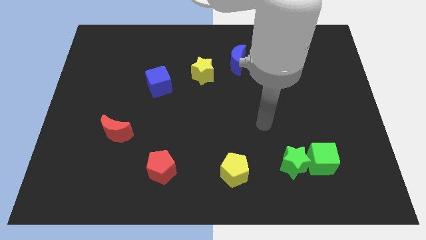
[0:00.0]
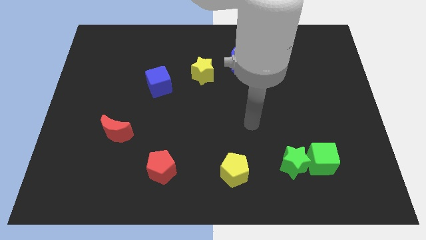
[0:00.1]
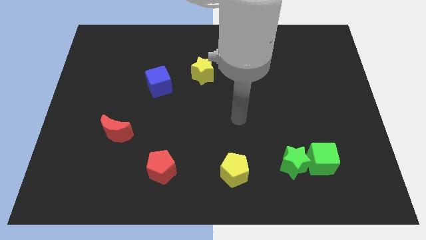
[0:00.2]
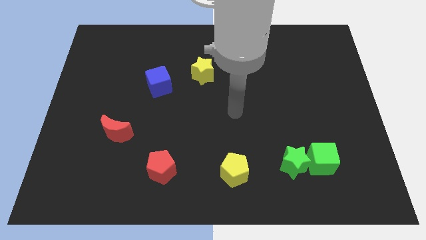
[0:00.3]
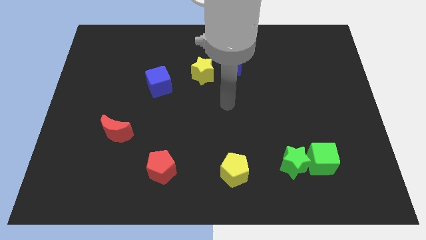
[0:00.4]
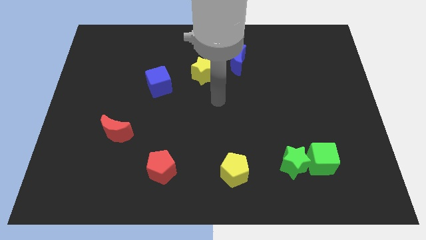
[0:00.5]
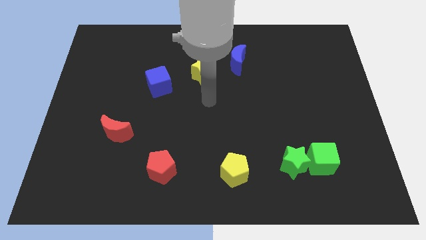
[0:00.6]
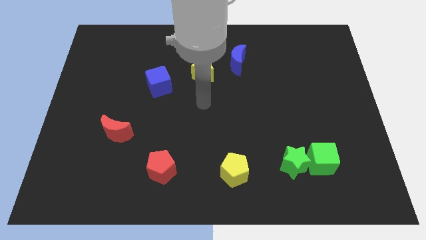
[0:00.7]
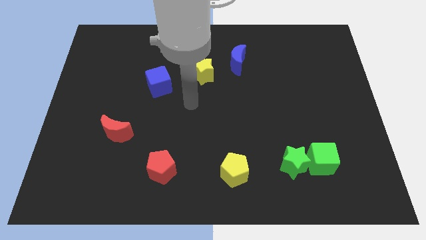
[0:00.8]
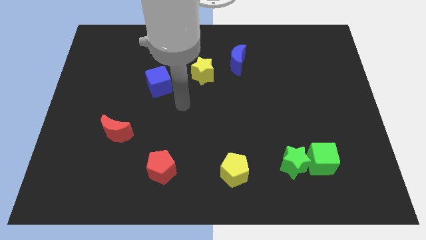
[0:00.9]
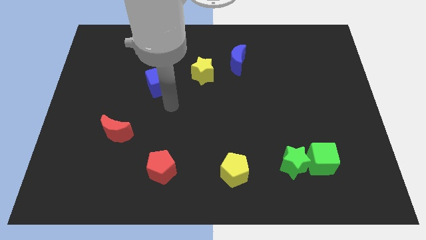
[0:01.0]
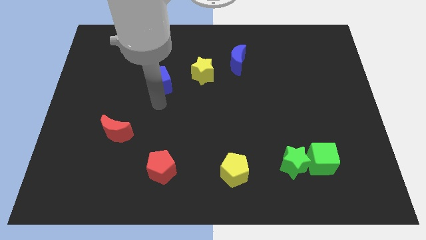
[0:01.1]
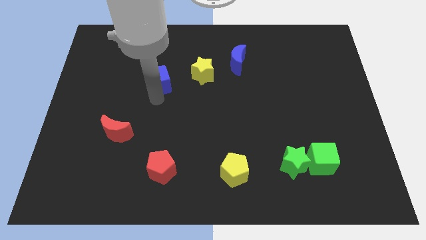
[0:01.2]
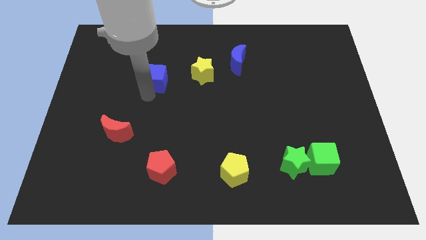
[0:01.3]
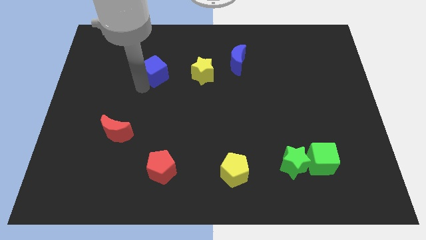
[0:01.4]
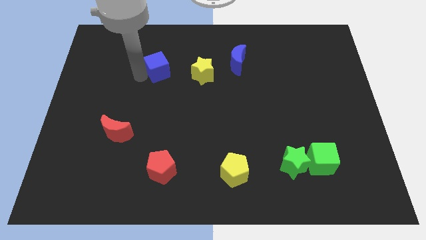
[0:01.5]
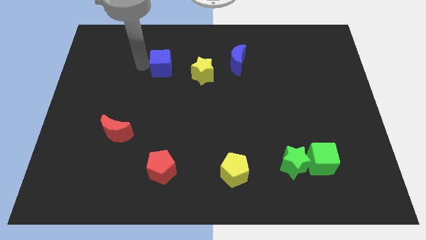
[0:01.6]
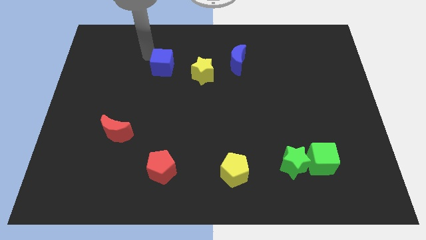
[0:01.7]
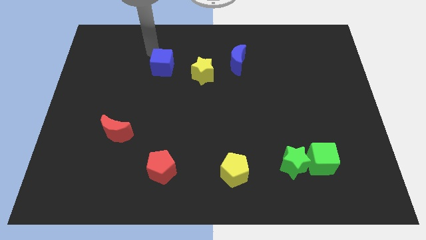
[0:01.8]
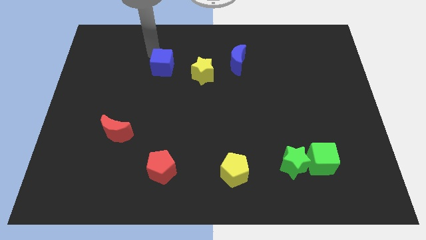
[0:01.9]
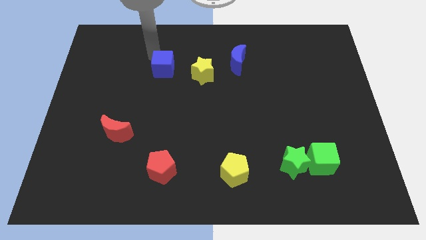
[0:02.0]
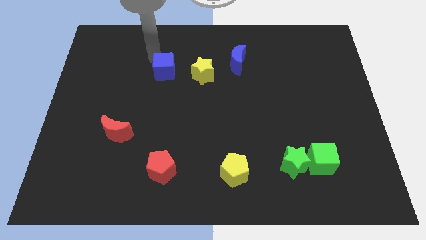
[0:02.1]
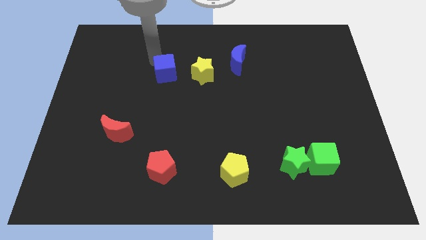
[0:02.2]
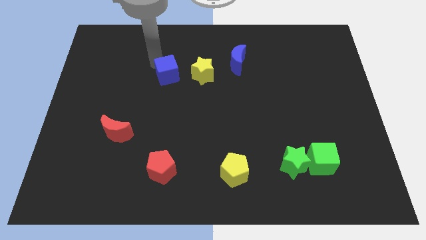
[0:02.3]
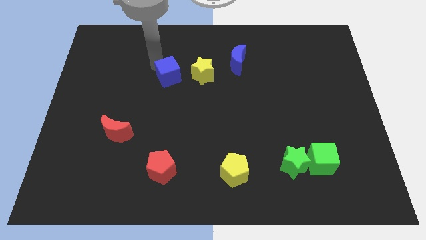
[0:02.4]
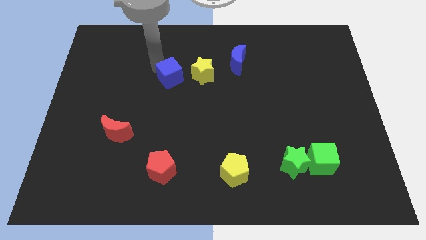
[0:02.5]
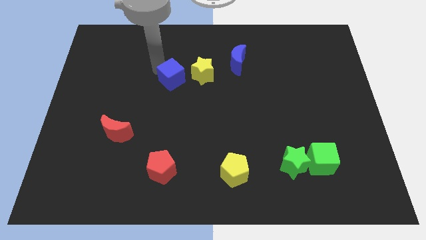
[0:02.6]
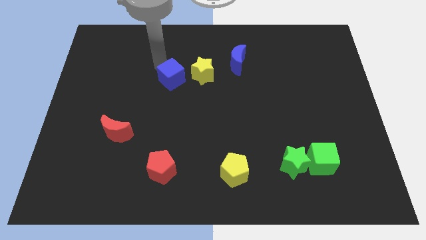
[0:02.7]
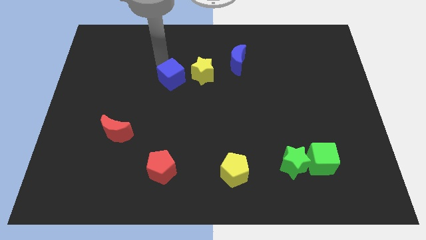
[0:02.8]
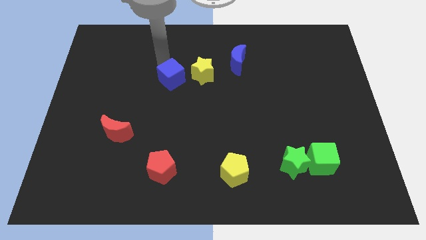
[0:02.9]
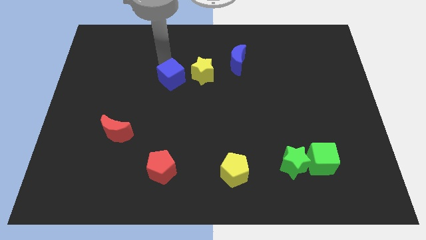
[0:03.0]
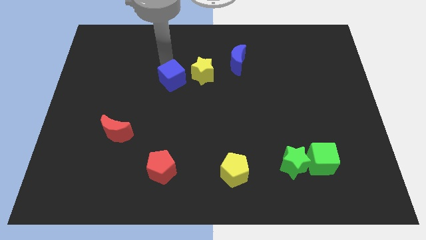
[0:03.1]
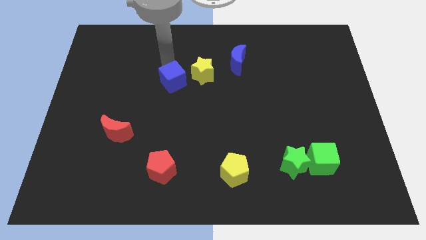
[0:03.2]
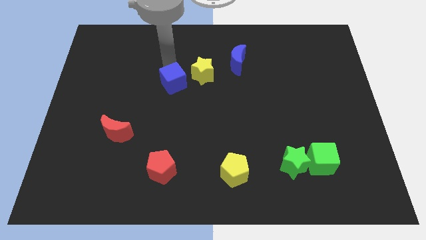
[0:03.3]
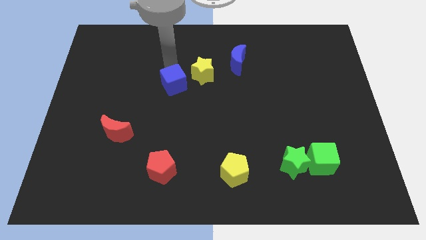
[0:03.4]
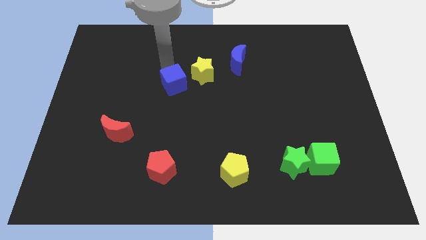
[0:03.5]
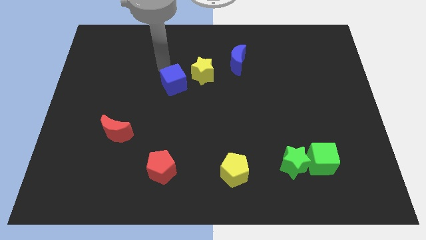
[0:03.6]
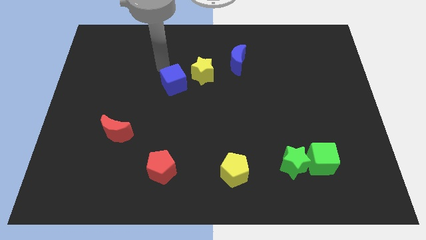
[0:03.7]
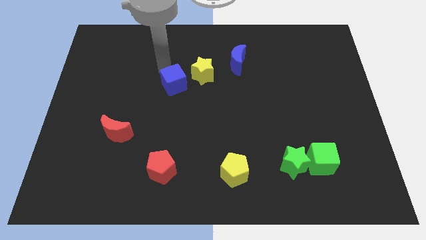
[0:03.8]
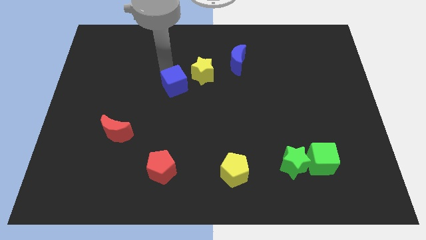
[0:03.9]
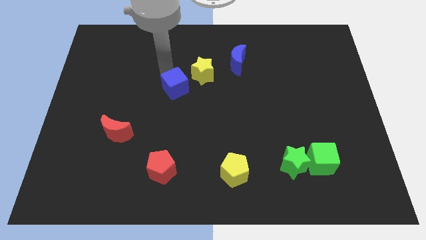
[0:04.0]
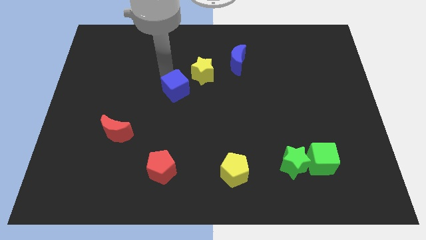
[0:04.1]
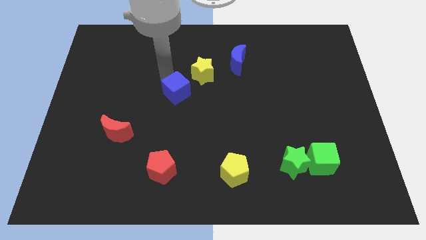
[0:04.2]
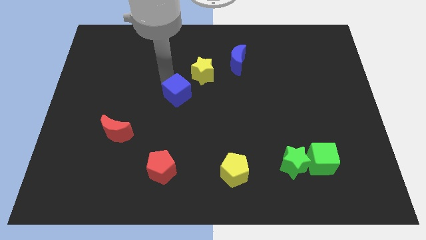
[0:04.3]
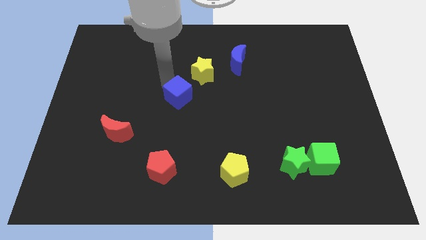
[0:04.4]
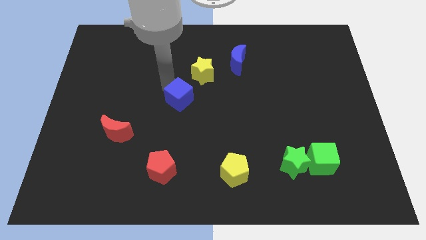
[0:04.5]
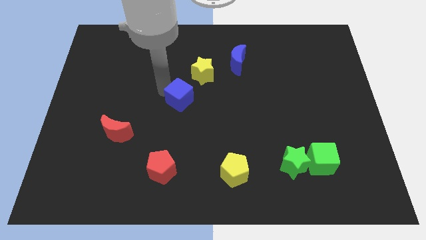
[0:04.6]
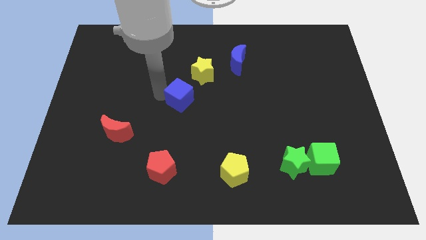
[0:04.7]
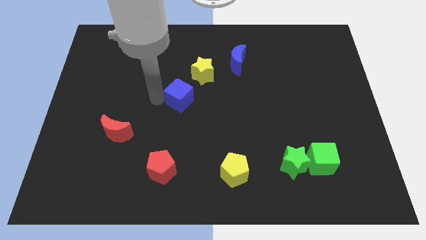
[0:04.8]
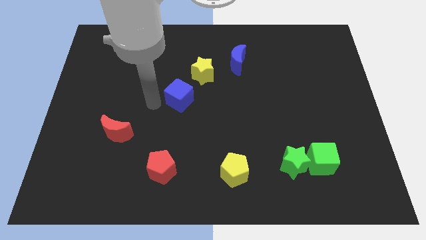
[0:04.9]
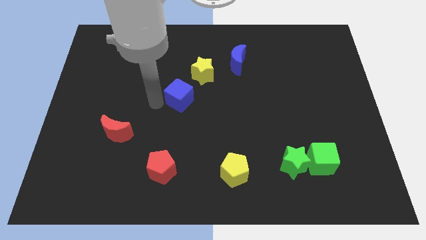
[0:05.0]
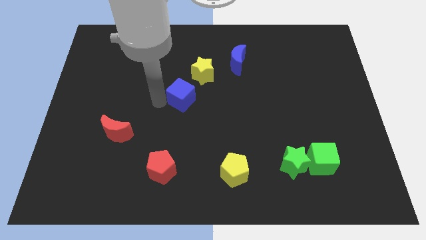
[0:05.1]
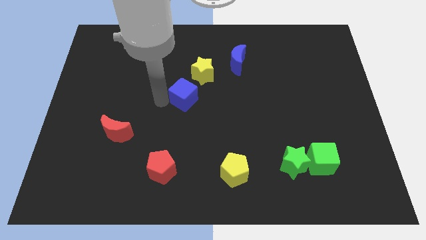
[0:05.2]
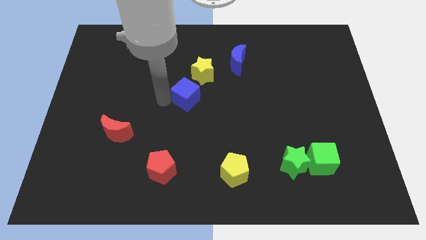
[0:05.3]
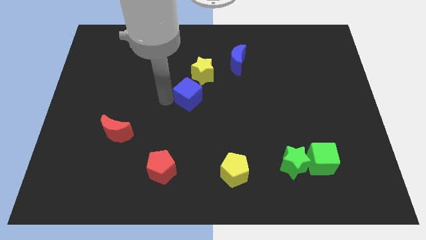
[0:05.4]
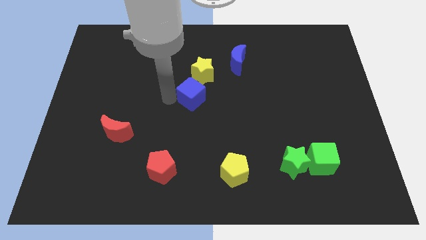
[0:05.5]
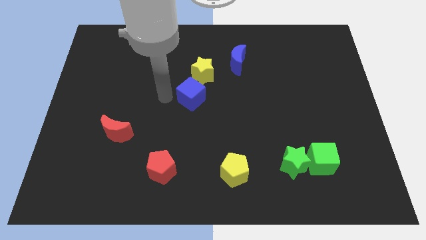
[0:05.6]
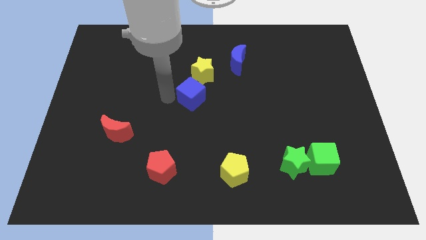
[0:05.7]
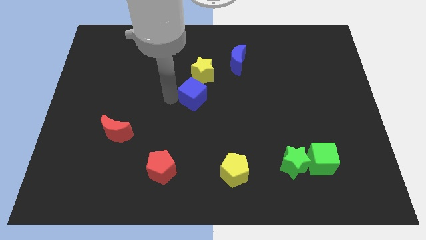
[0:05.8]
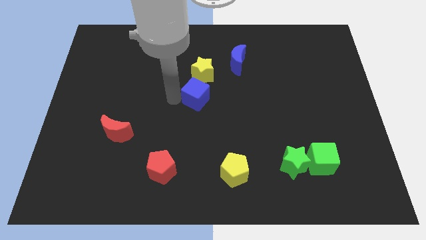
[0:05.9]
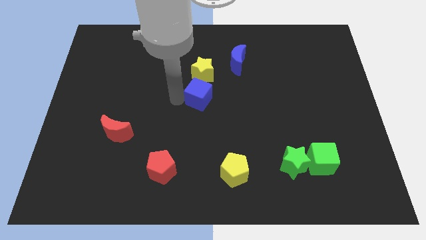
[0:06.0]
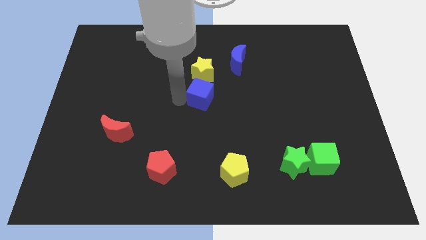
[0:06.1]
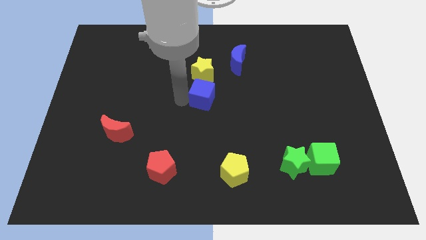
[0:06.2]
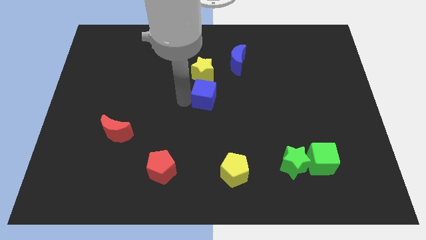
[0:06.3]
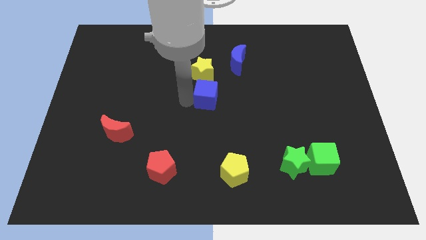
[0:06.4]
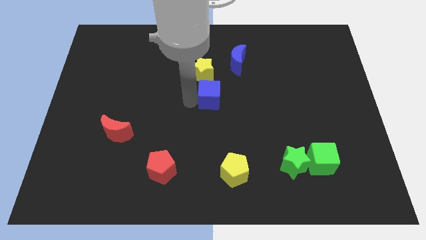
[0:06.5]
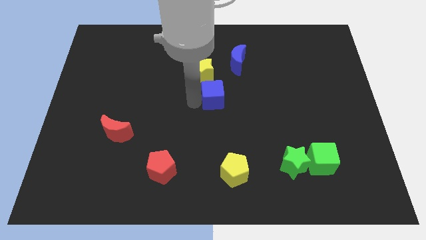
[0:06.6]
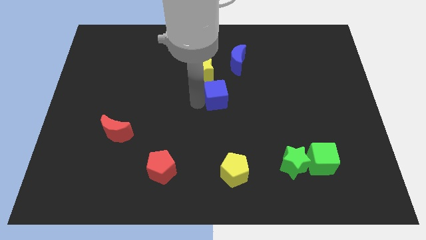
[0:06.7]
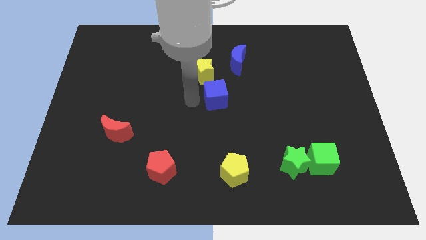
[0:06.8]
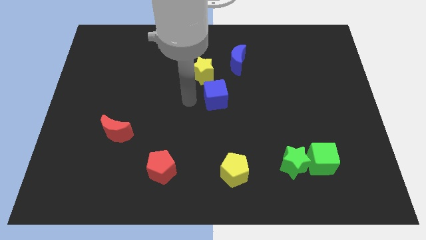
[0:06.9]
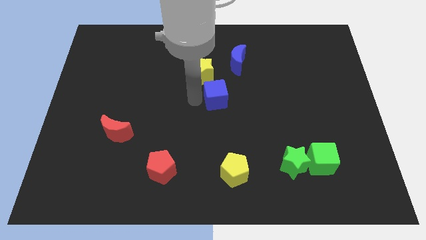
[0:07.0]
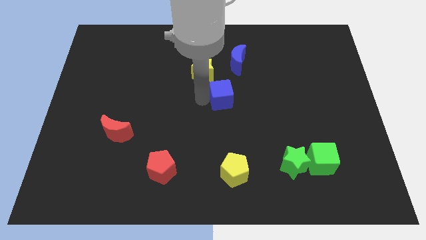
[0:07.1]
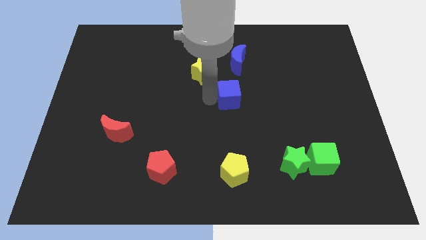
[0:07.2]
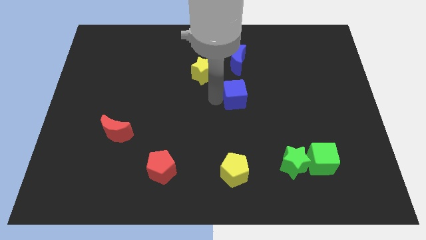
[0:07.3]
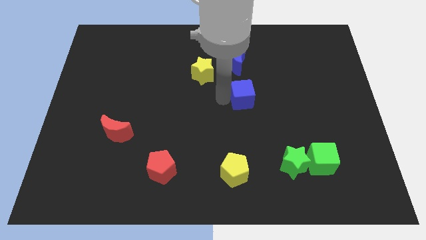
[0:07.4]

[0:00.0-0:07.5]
slide the blue cube right

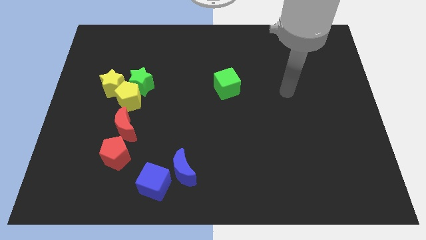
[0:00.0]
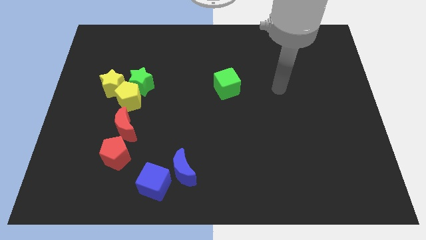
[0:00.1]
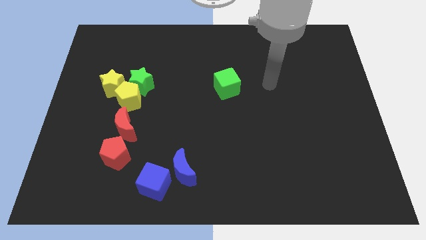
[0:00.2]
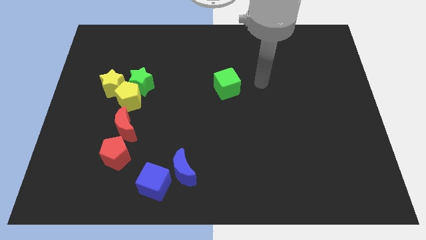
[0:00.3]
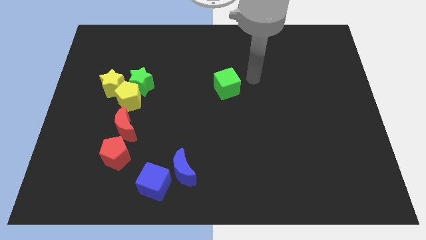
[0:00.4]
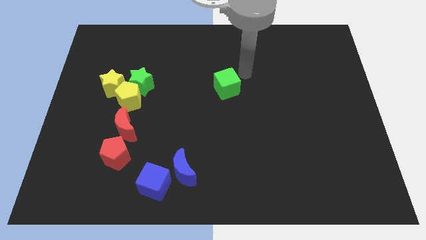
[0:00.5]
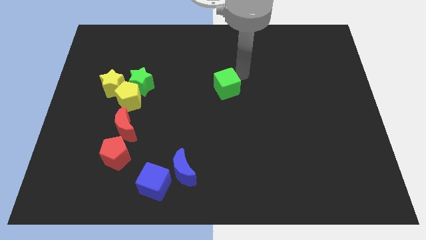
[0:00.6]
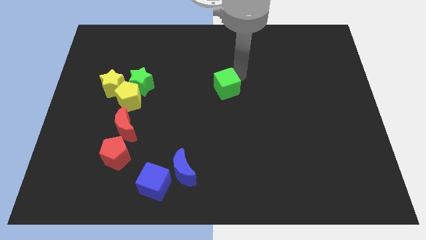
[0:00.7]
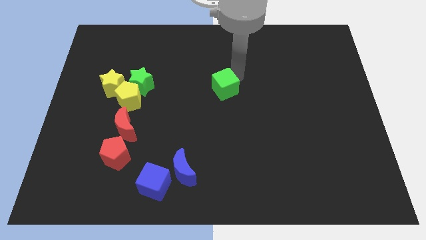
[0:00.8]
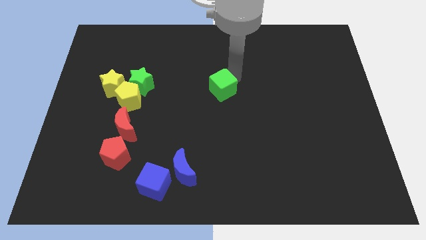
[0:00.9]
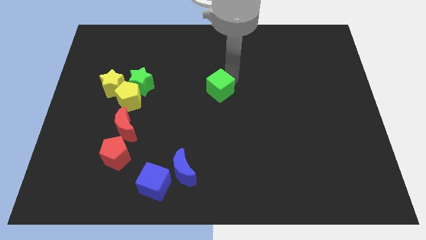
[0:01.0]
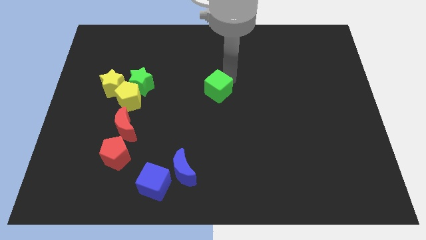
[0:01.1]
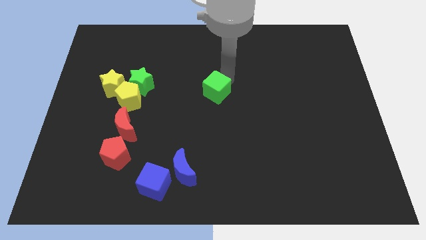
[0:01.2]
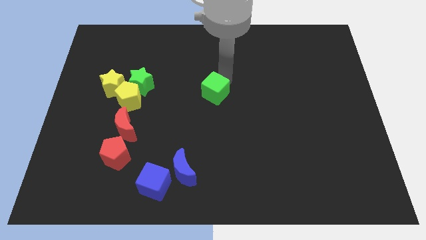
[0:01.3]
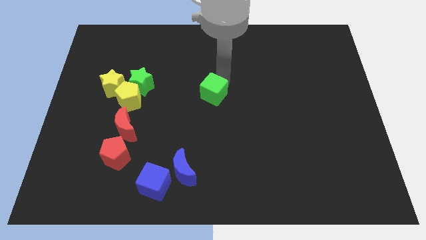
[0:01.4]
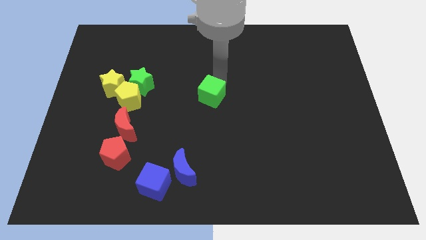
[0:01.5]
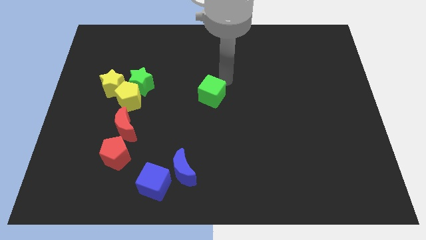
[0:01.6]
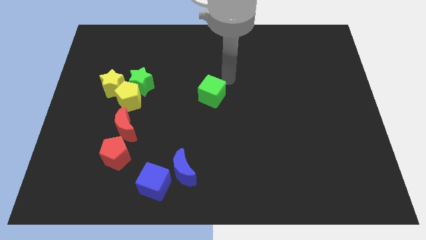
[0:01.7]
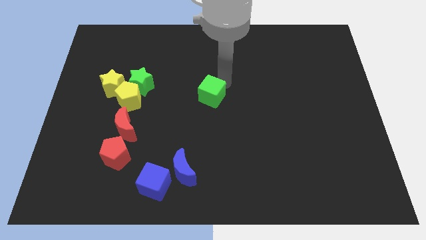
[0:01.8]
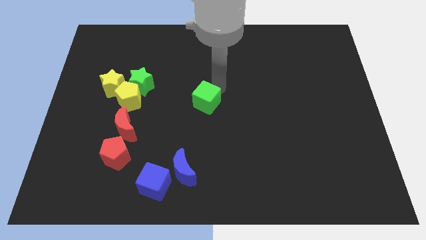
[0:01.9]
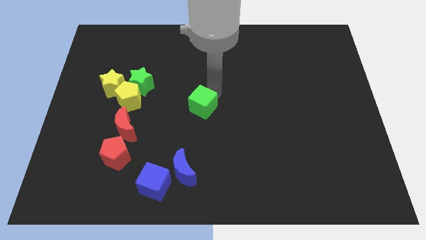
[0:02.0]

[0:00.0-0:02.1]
slightly push the green cube down and to the left
